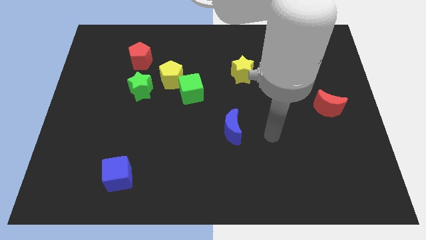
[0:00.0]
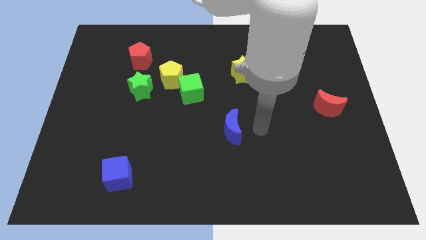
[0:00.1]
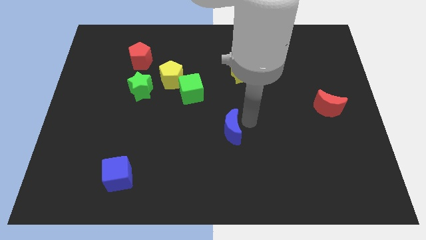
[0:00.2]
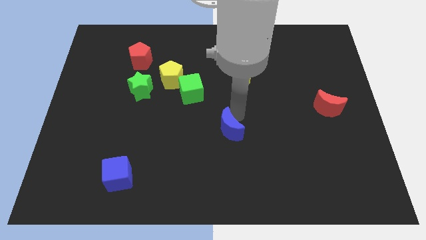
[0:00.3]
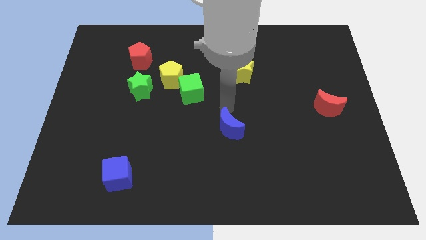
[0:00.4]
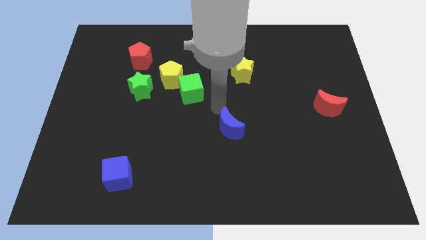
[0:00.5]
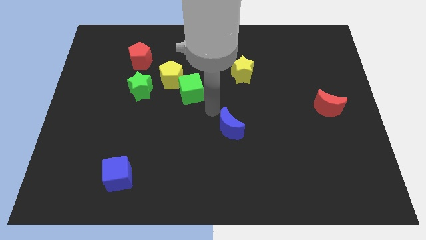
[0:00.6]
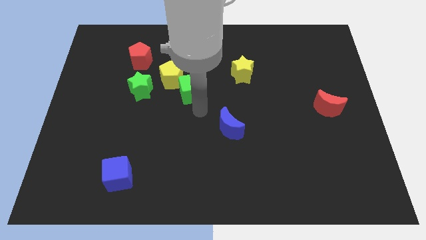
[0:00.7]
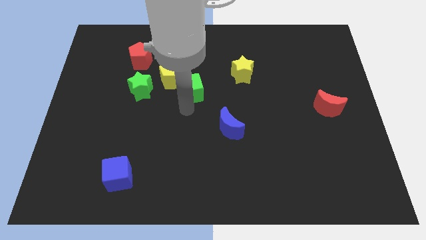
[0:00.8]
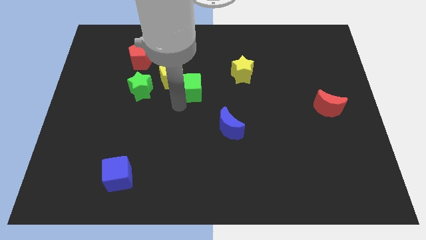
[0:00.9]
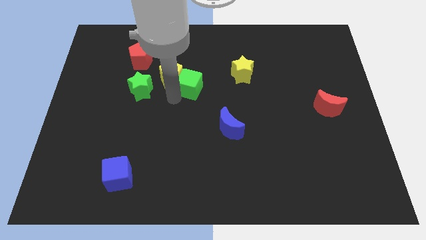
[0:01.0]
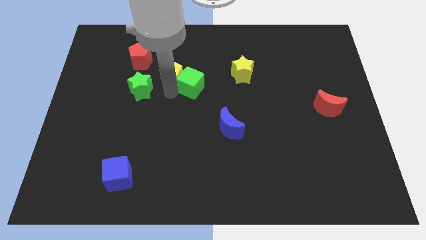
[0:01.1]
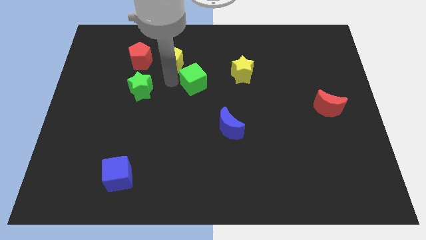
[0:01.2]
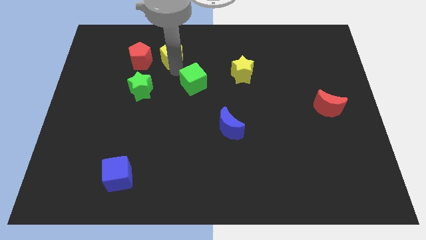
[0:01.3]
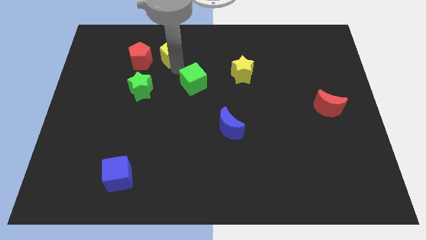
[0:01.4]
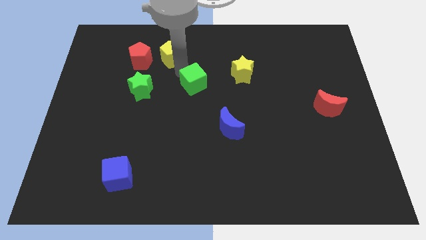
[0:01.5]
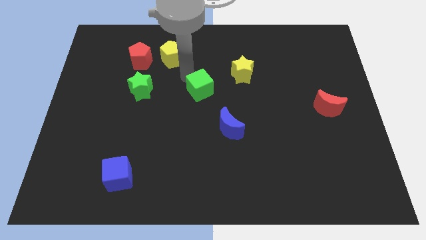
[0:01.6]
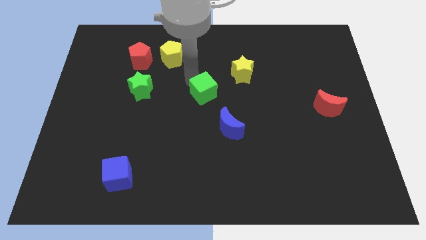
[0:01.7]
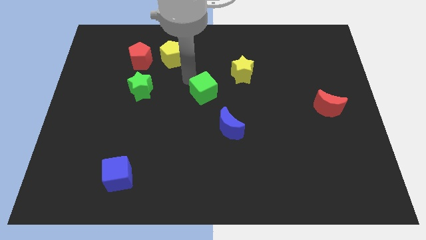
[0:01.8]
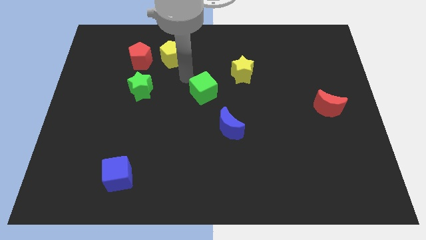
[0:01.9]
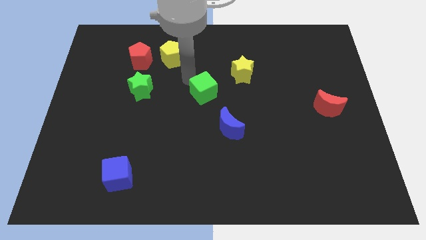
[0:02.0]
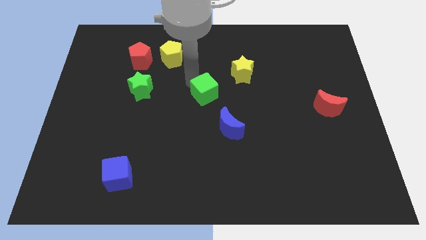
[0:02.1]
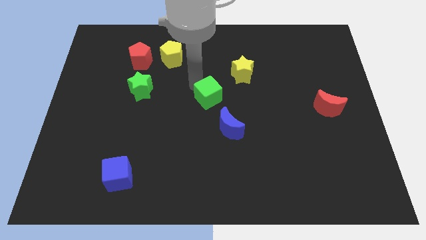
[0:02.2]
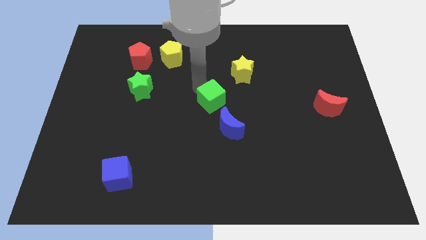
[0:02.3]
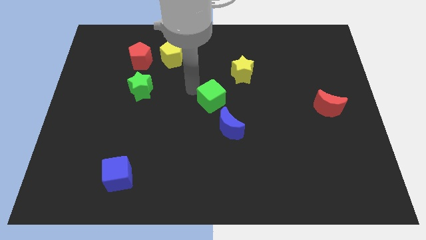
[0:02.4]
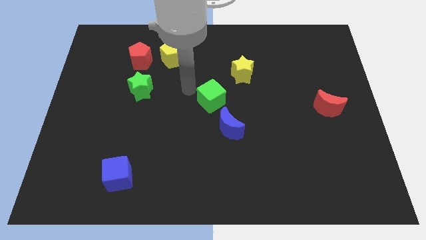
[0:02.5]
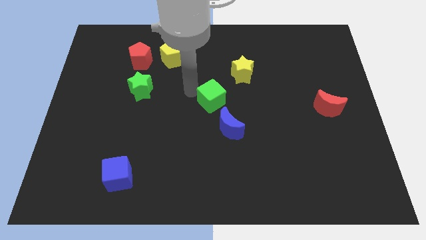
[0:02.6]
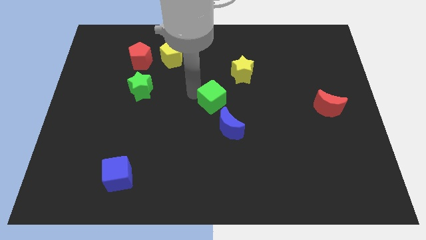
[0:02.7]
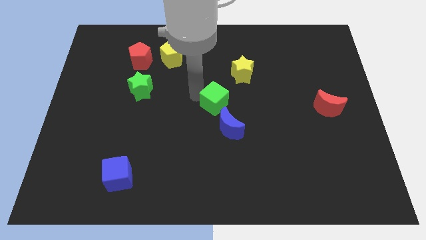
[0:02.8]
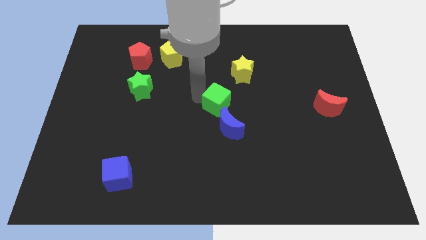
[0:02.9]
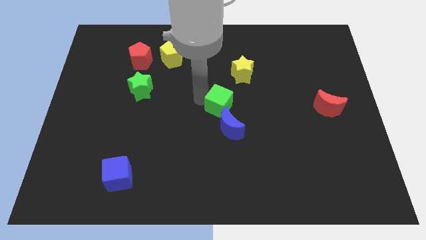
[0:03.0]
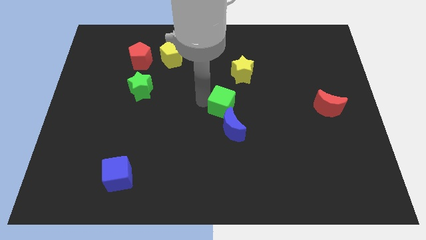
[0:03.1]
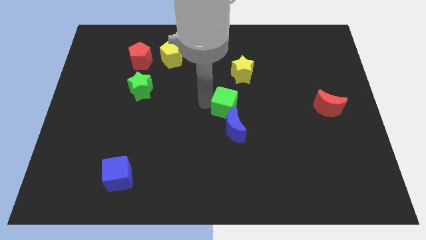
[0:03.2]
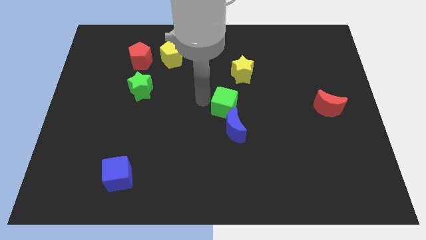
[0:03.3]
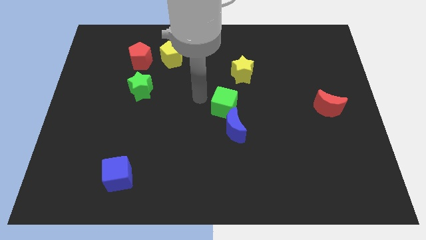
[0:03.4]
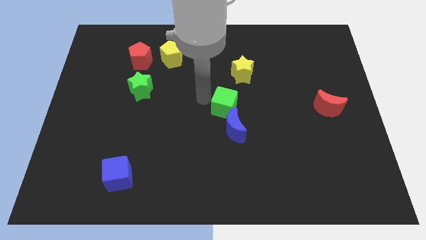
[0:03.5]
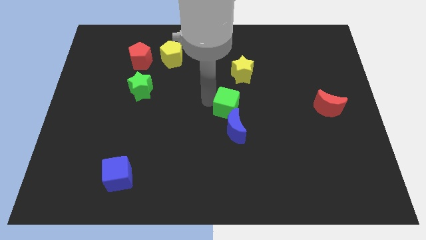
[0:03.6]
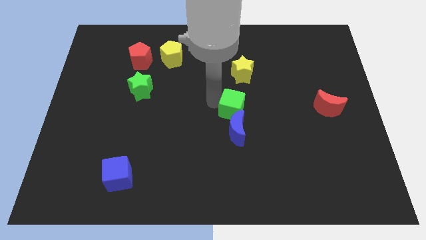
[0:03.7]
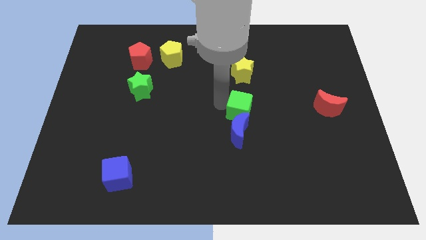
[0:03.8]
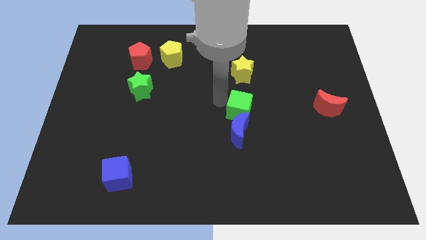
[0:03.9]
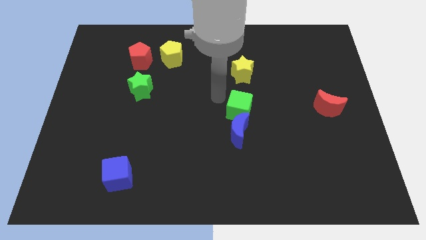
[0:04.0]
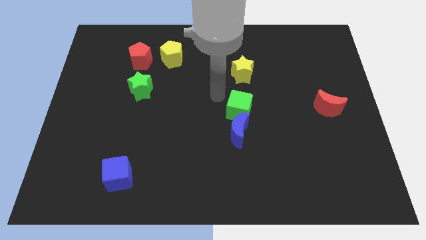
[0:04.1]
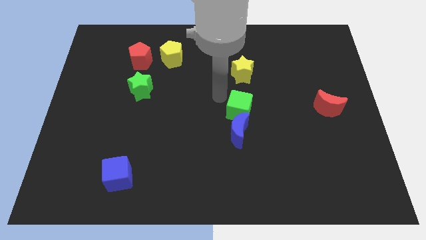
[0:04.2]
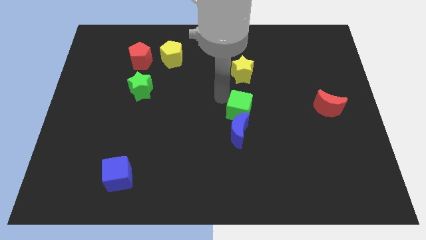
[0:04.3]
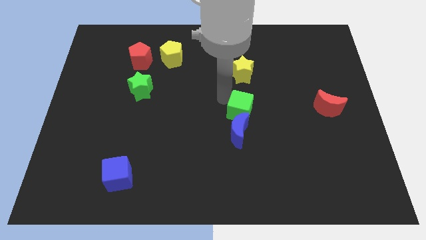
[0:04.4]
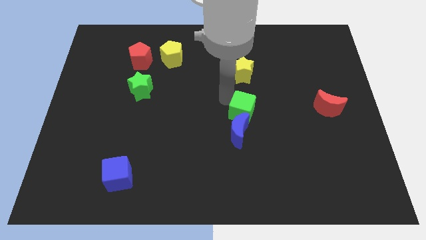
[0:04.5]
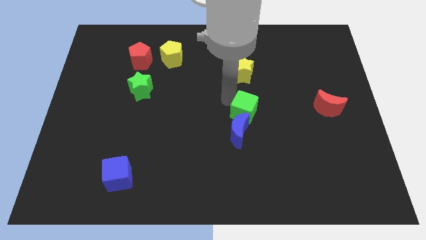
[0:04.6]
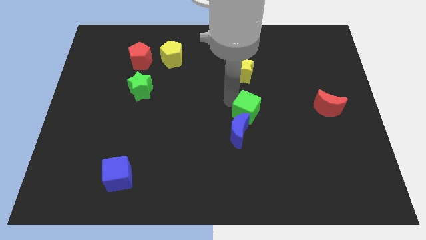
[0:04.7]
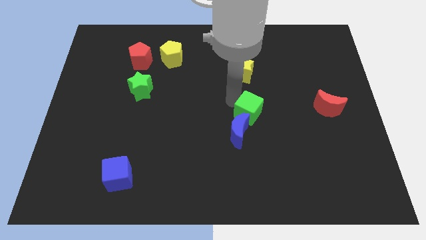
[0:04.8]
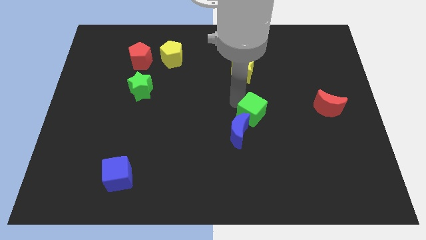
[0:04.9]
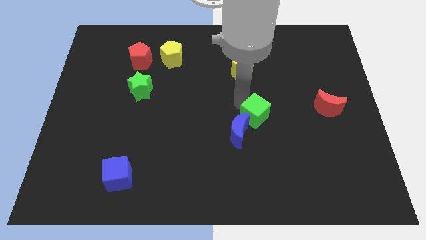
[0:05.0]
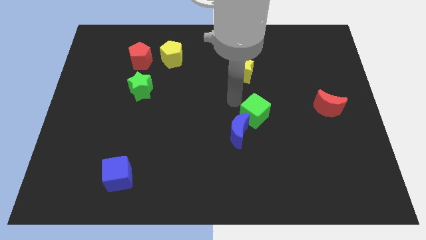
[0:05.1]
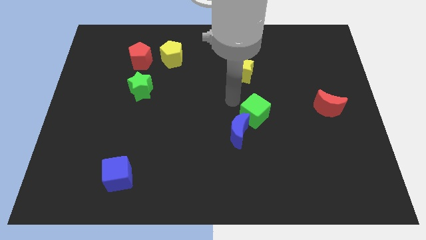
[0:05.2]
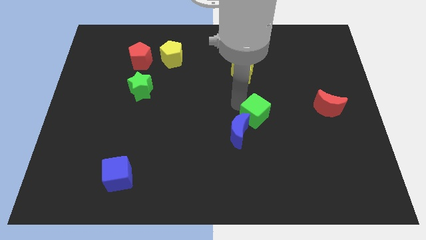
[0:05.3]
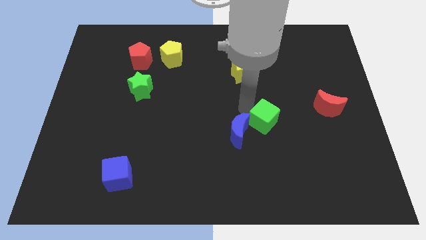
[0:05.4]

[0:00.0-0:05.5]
push the green cube right of the blue moon

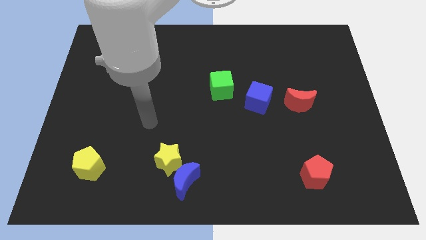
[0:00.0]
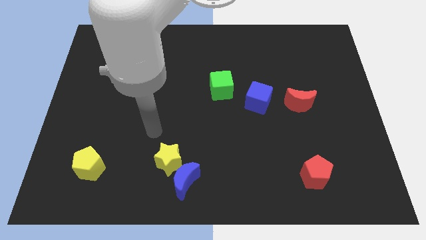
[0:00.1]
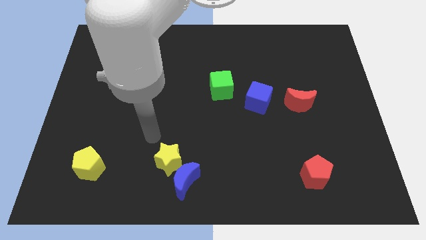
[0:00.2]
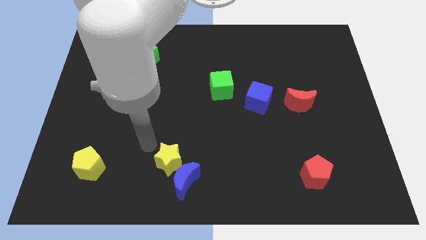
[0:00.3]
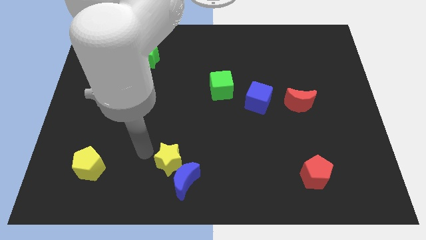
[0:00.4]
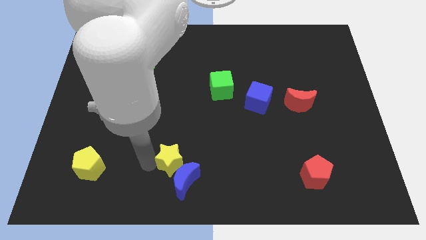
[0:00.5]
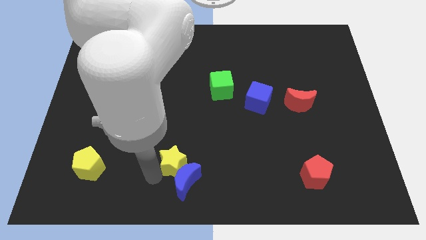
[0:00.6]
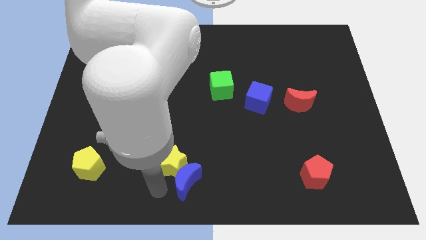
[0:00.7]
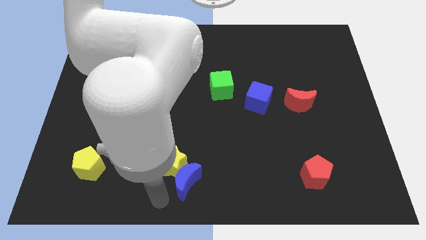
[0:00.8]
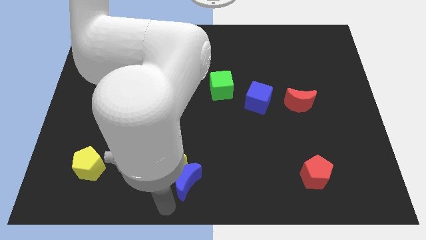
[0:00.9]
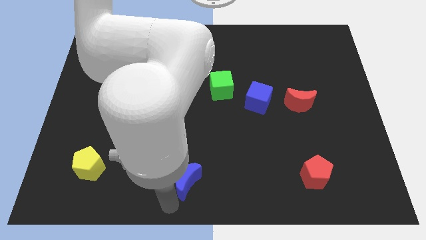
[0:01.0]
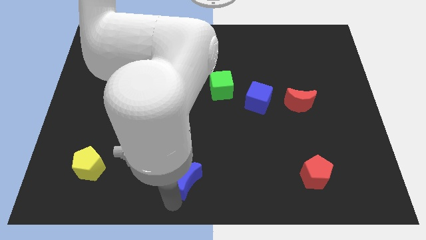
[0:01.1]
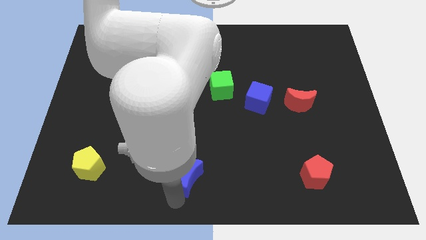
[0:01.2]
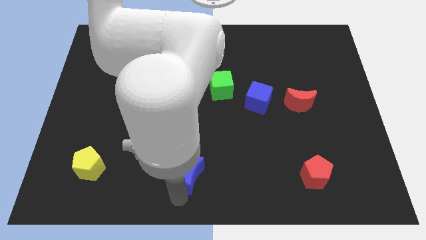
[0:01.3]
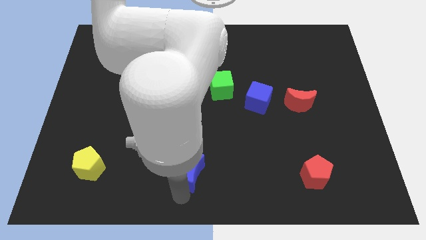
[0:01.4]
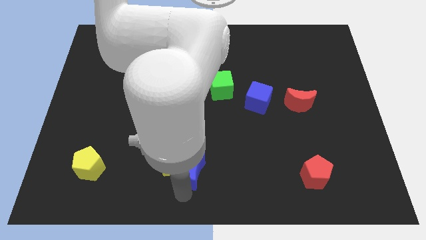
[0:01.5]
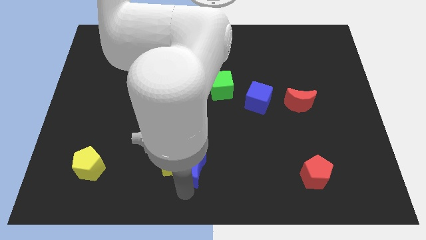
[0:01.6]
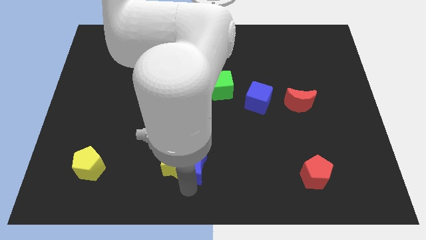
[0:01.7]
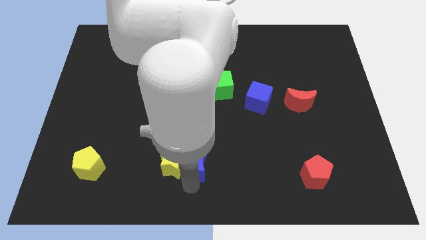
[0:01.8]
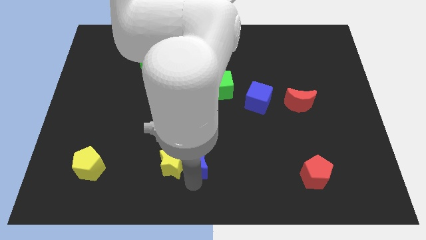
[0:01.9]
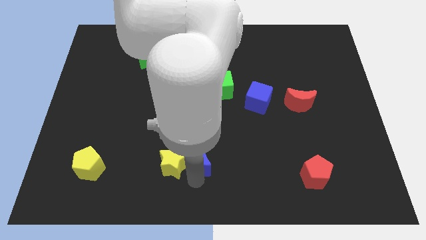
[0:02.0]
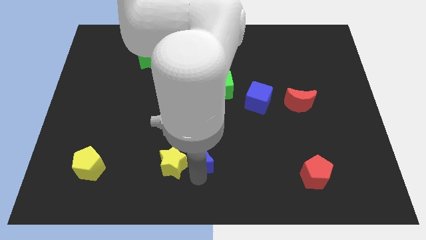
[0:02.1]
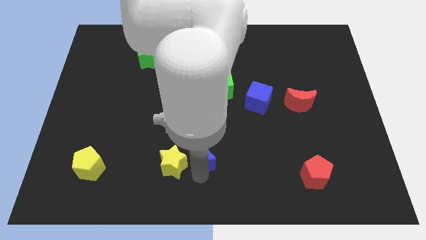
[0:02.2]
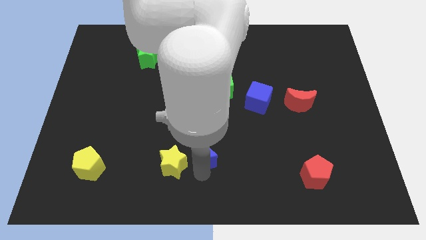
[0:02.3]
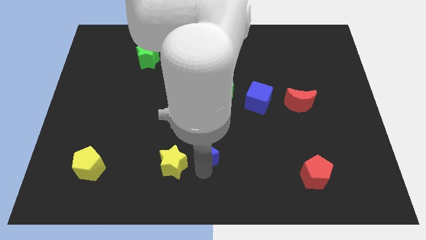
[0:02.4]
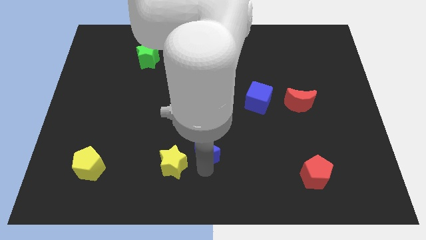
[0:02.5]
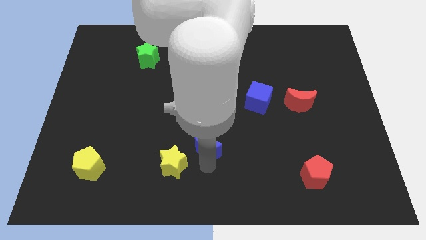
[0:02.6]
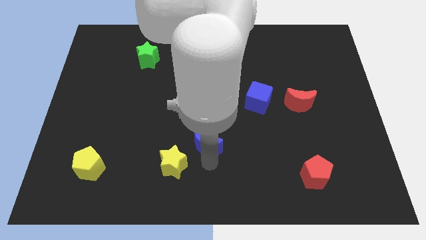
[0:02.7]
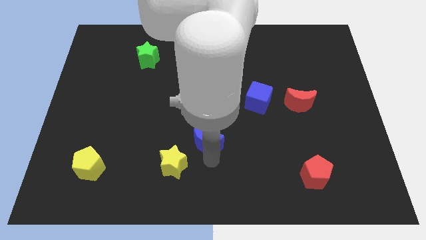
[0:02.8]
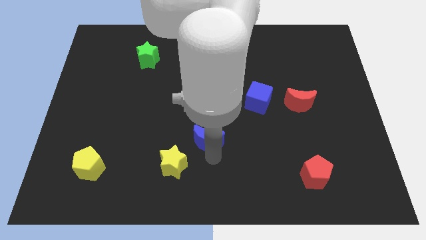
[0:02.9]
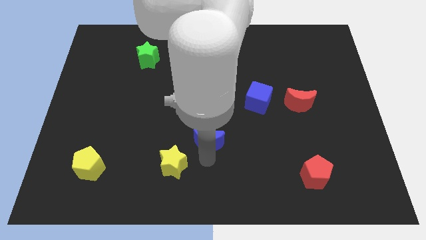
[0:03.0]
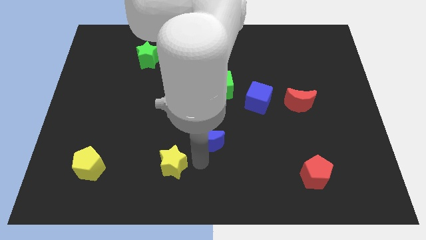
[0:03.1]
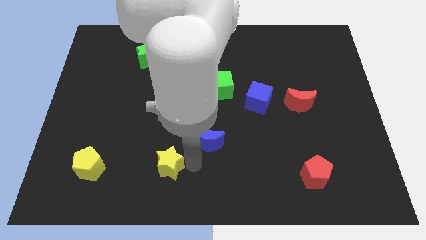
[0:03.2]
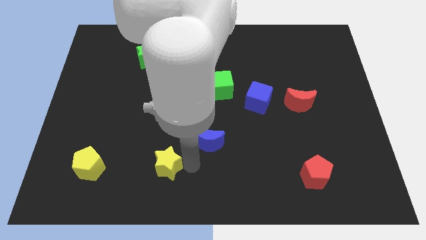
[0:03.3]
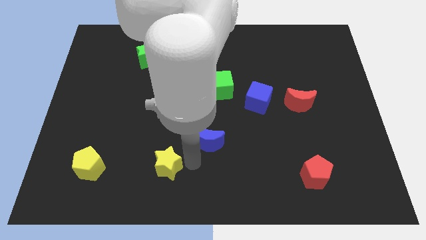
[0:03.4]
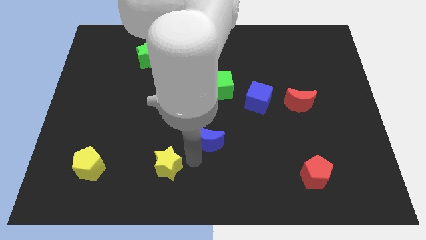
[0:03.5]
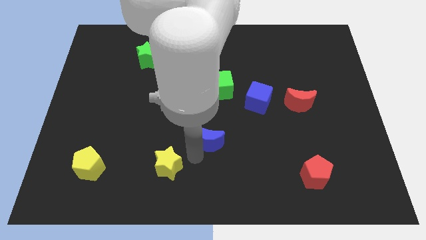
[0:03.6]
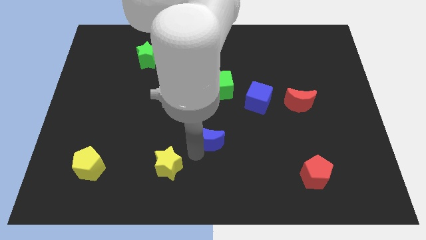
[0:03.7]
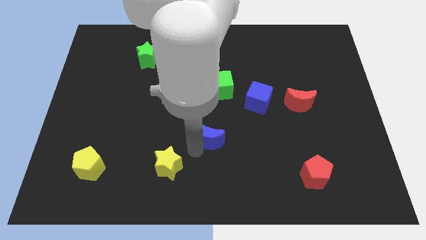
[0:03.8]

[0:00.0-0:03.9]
put the blue moon to the bottom side of the green cube
